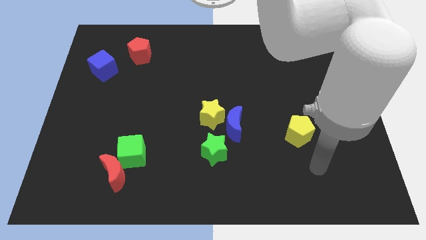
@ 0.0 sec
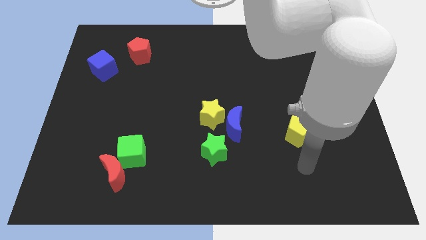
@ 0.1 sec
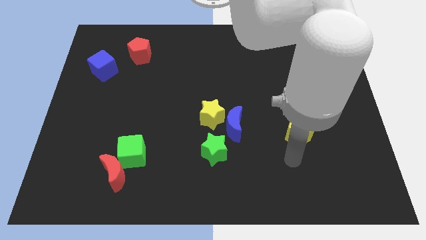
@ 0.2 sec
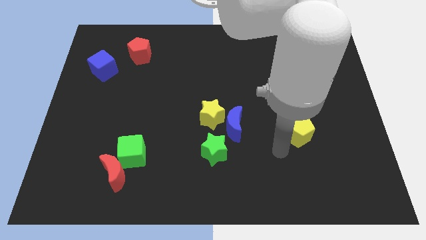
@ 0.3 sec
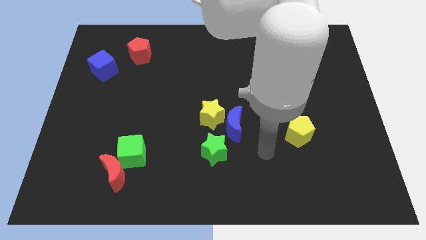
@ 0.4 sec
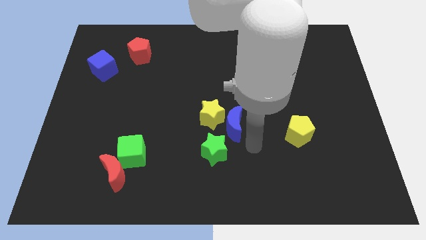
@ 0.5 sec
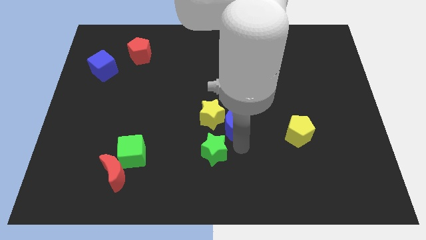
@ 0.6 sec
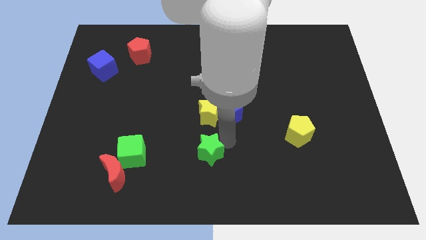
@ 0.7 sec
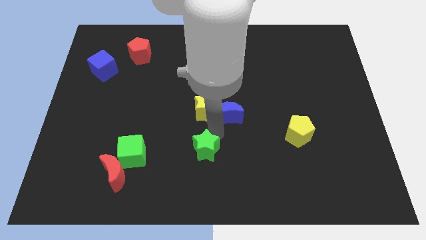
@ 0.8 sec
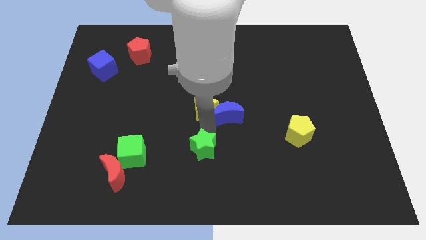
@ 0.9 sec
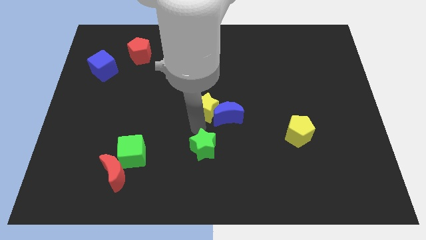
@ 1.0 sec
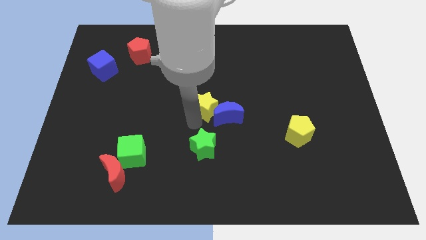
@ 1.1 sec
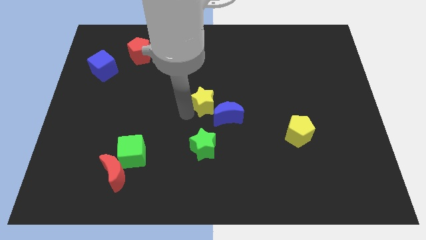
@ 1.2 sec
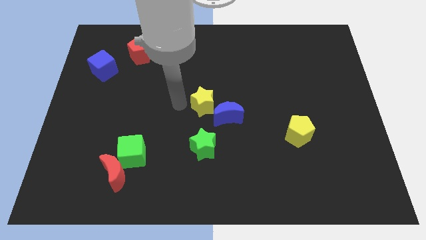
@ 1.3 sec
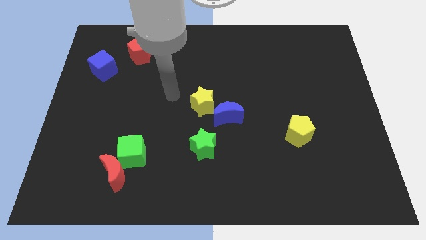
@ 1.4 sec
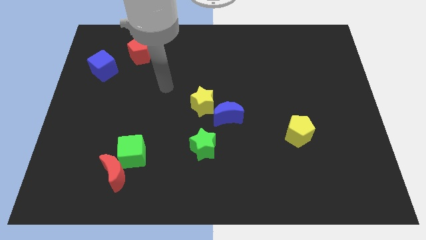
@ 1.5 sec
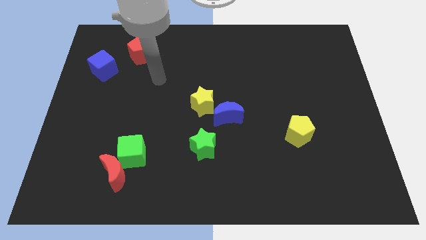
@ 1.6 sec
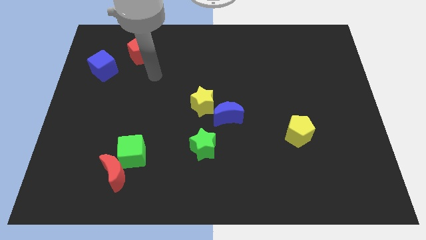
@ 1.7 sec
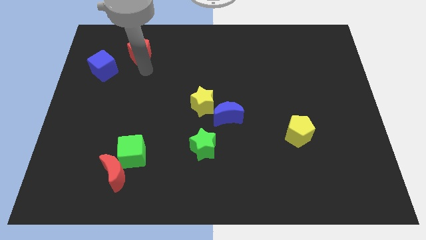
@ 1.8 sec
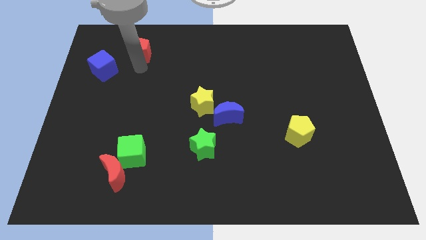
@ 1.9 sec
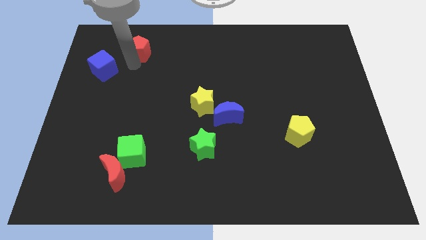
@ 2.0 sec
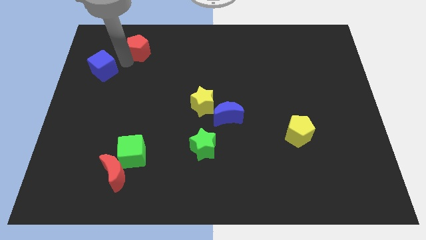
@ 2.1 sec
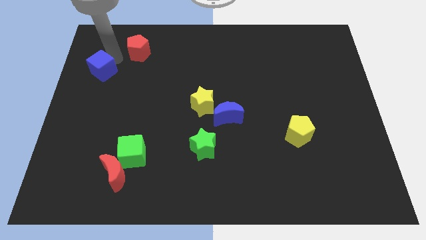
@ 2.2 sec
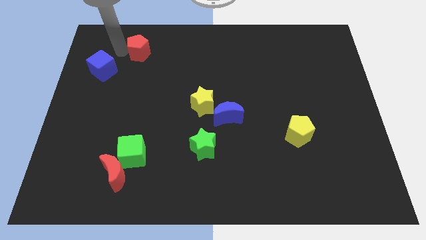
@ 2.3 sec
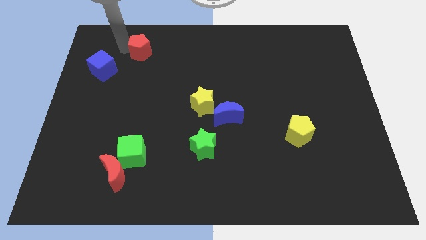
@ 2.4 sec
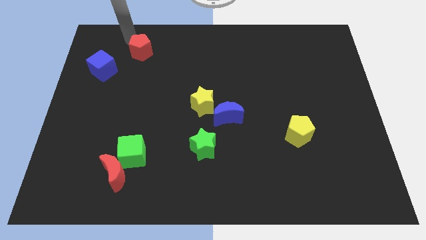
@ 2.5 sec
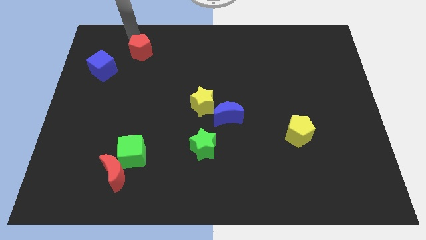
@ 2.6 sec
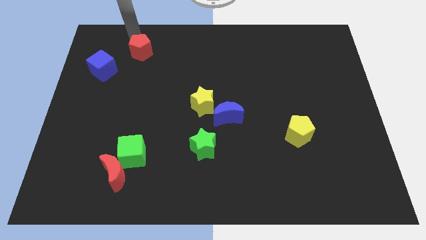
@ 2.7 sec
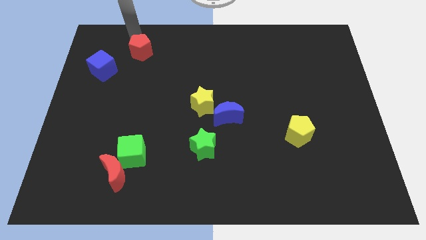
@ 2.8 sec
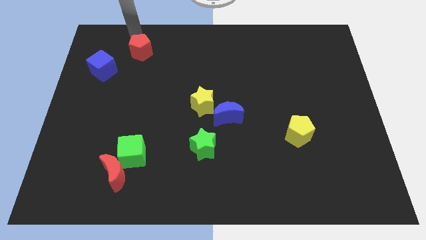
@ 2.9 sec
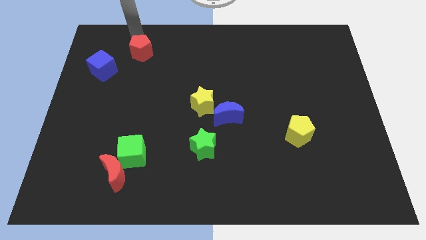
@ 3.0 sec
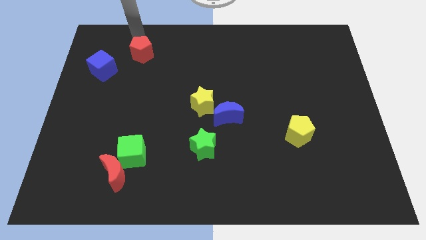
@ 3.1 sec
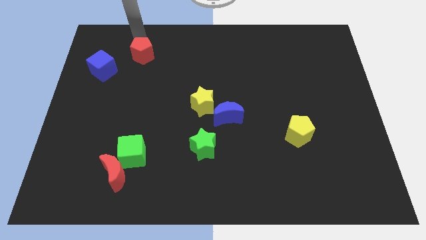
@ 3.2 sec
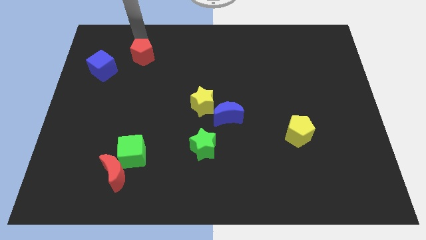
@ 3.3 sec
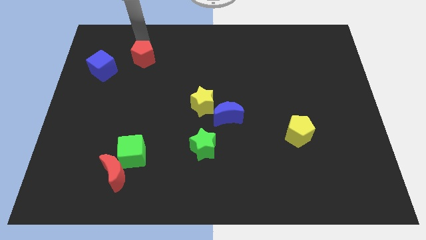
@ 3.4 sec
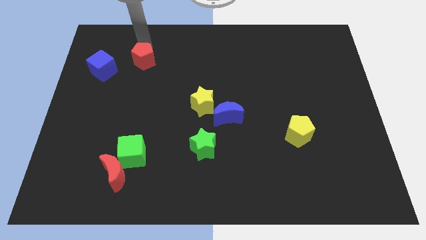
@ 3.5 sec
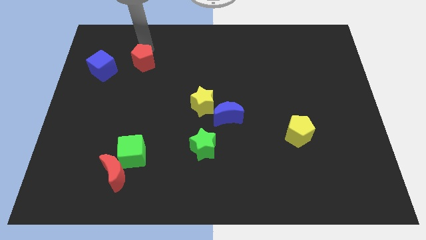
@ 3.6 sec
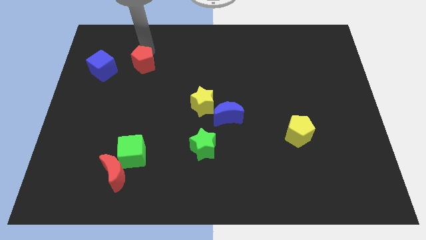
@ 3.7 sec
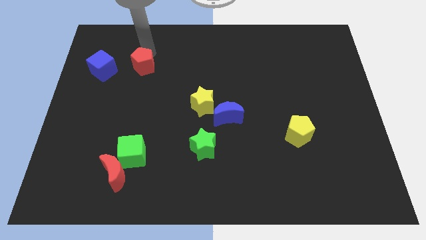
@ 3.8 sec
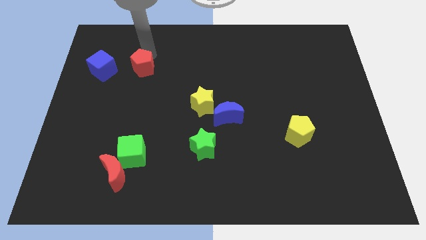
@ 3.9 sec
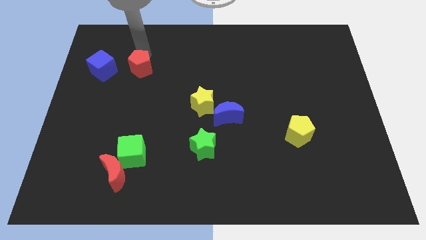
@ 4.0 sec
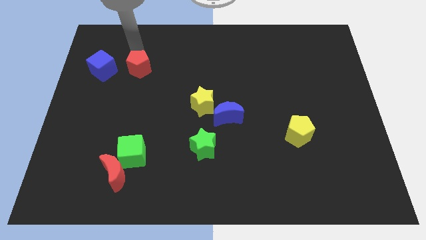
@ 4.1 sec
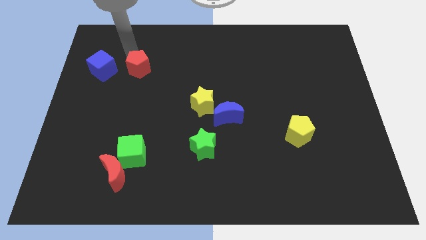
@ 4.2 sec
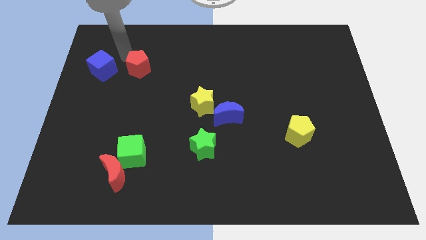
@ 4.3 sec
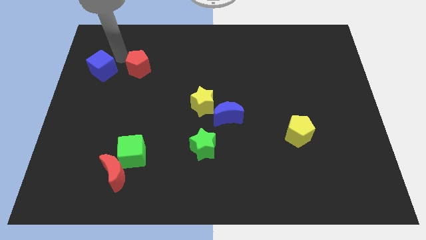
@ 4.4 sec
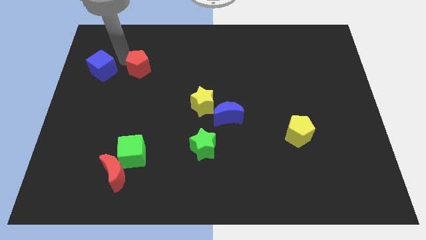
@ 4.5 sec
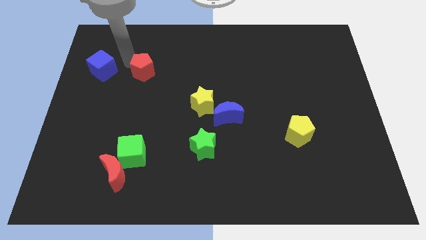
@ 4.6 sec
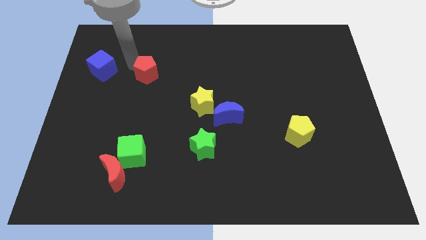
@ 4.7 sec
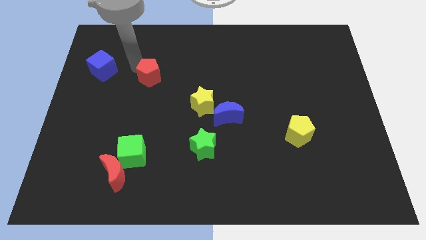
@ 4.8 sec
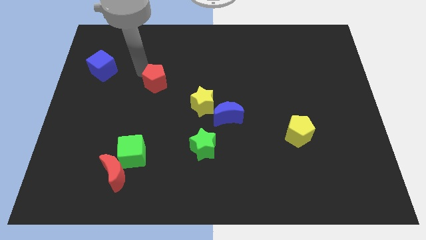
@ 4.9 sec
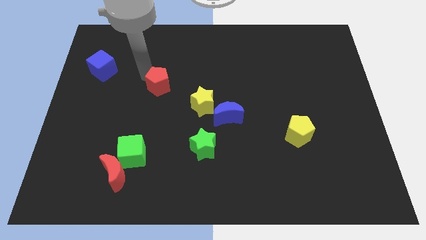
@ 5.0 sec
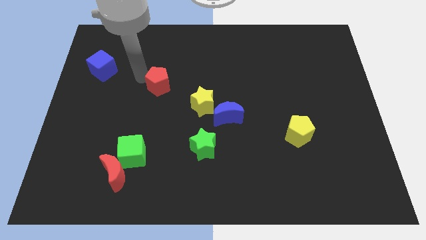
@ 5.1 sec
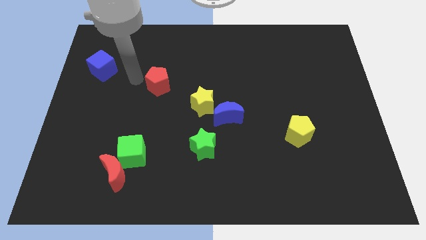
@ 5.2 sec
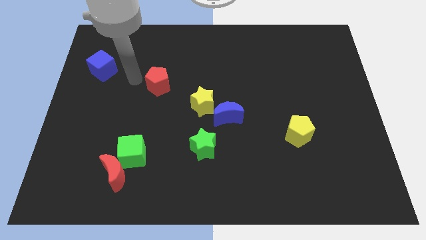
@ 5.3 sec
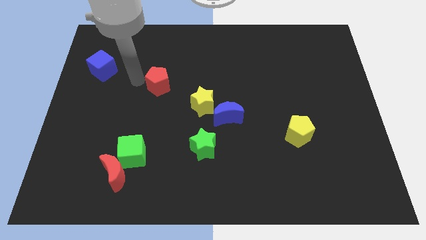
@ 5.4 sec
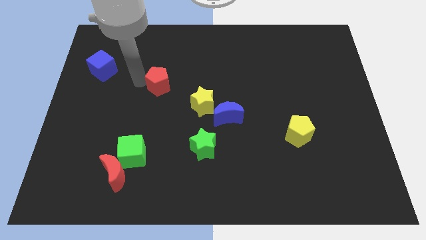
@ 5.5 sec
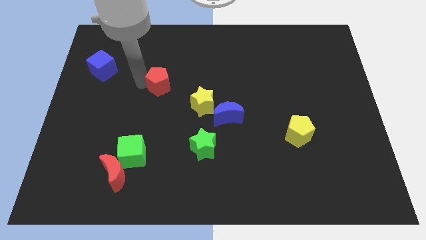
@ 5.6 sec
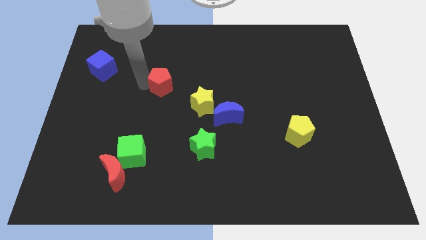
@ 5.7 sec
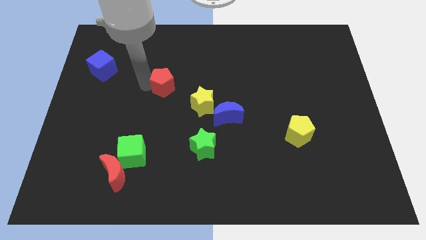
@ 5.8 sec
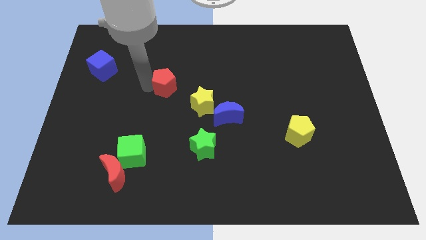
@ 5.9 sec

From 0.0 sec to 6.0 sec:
slide the red pentagon to the center of the board
